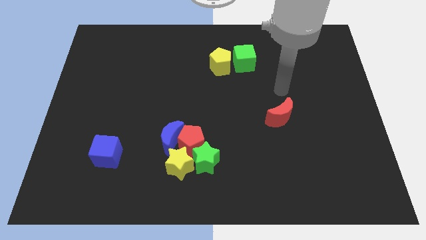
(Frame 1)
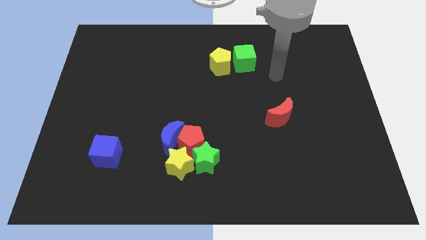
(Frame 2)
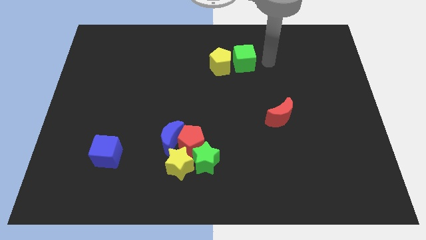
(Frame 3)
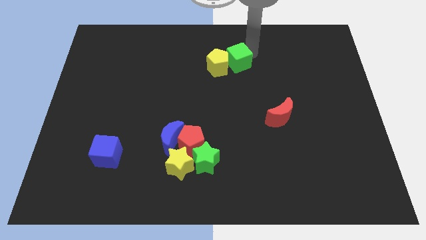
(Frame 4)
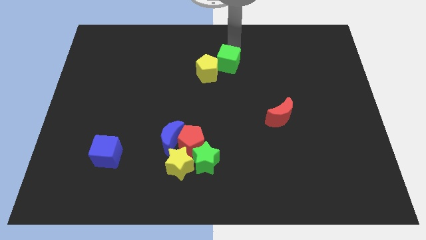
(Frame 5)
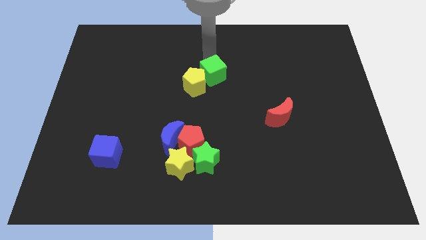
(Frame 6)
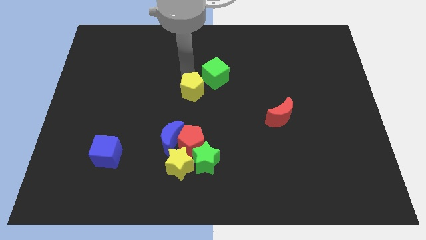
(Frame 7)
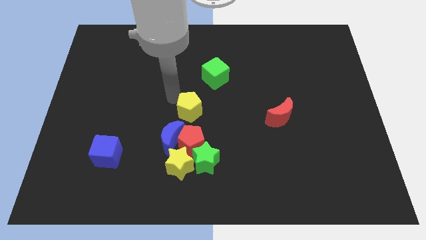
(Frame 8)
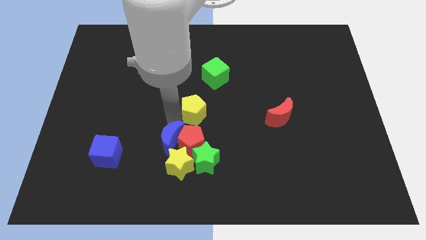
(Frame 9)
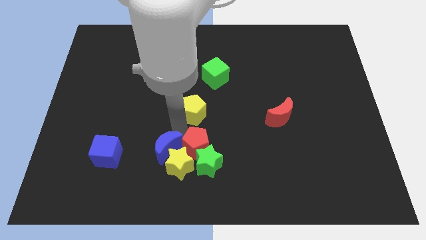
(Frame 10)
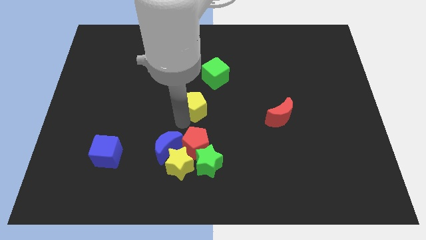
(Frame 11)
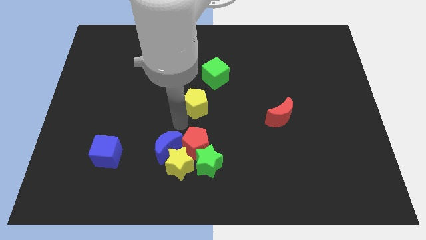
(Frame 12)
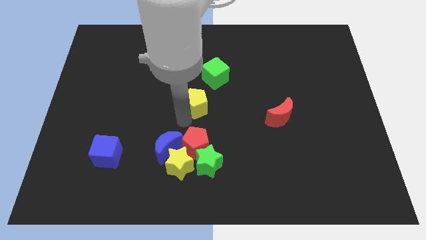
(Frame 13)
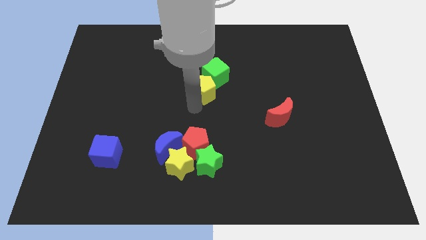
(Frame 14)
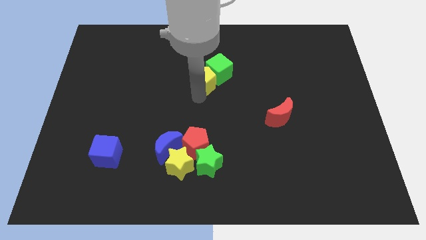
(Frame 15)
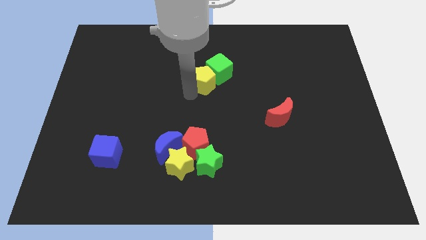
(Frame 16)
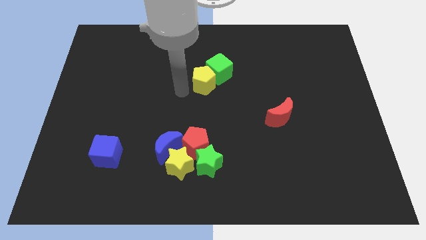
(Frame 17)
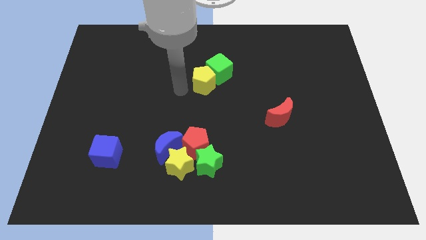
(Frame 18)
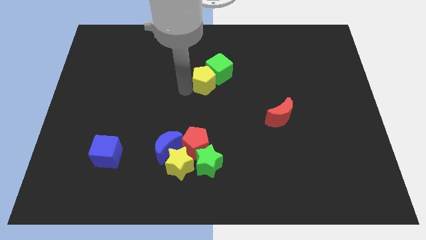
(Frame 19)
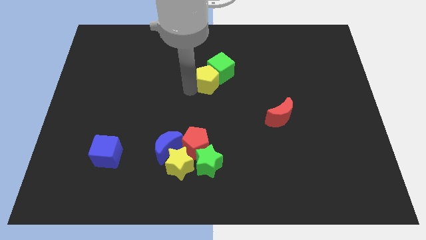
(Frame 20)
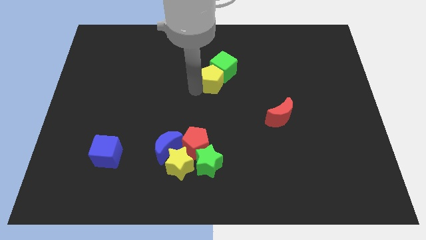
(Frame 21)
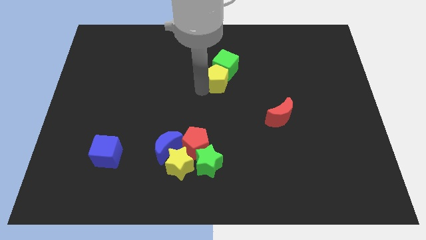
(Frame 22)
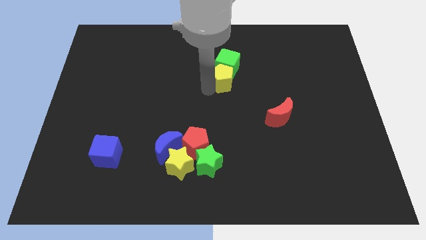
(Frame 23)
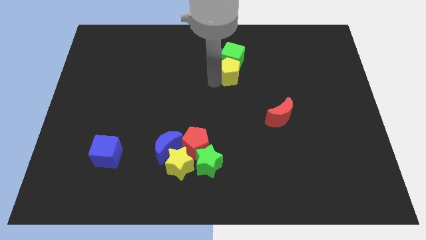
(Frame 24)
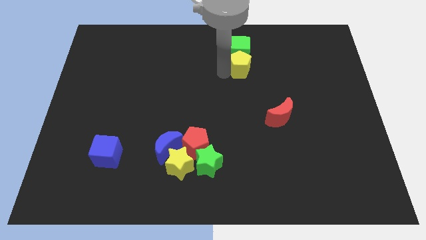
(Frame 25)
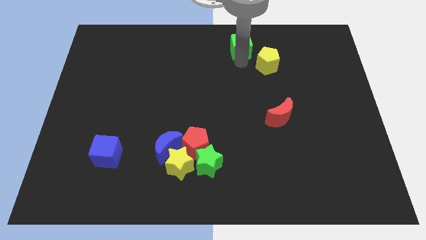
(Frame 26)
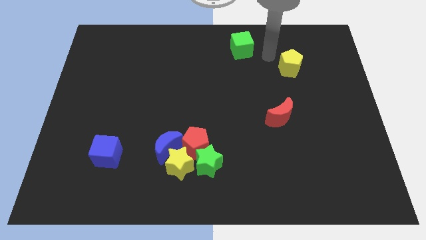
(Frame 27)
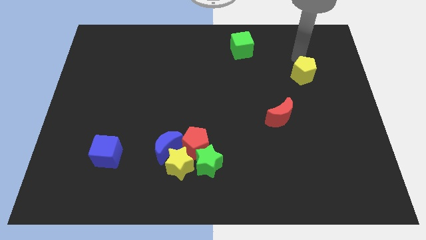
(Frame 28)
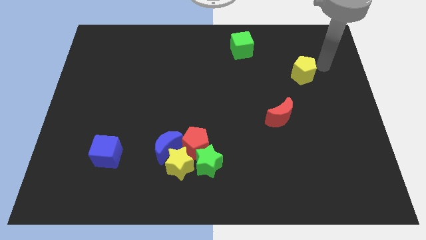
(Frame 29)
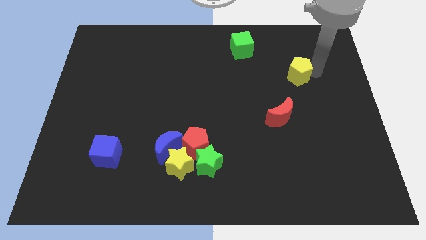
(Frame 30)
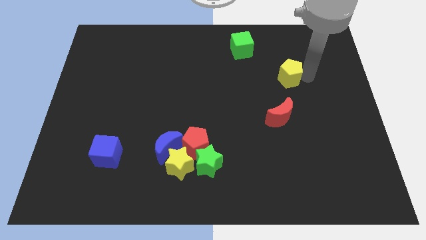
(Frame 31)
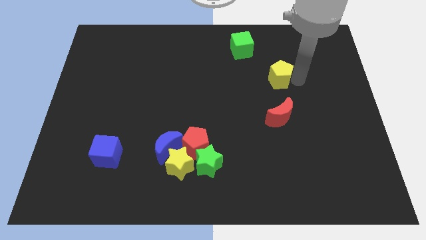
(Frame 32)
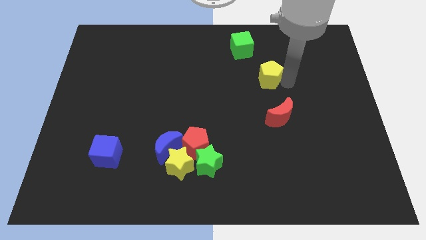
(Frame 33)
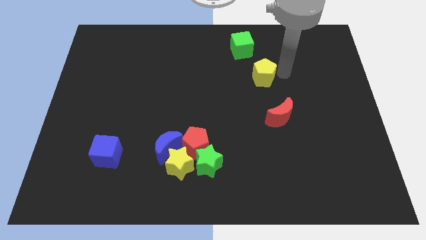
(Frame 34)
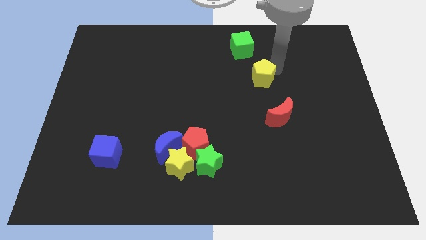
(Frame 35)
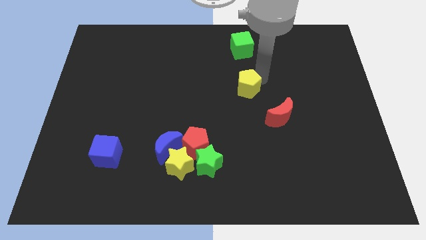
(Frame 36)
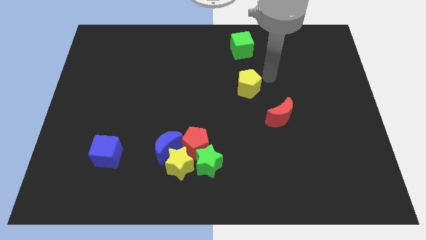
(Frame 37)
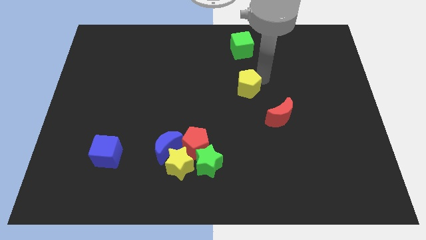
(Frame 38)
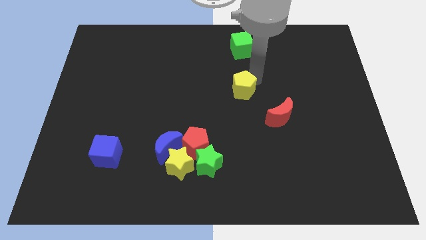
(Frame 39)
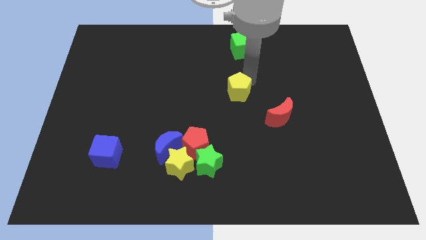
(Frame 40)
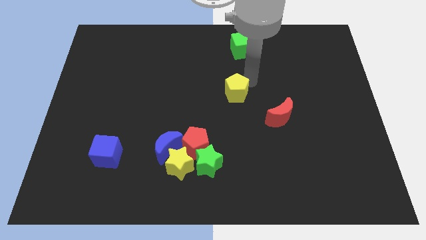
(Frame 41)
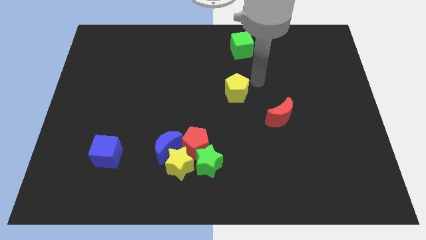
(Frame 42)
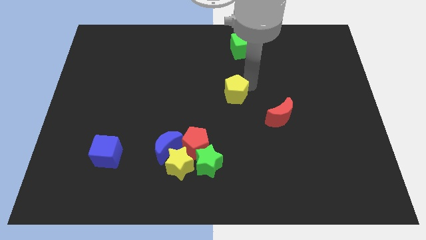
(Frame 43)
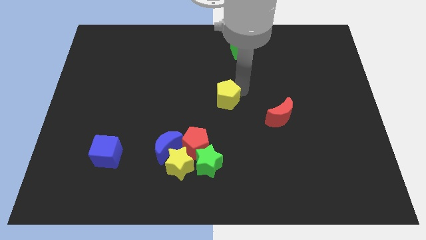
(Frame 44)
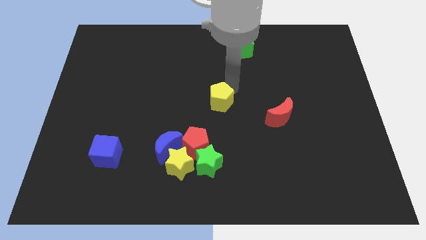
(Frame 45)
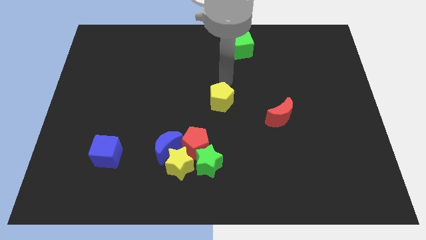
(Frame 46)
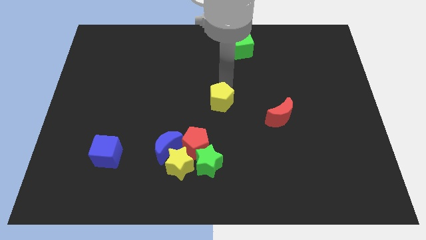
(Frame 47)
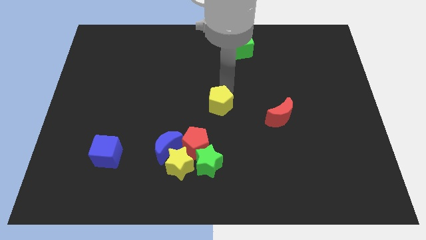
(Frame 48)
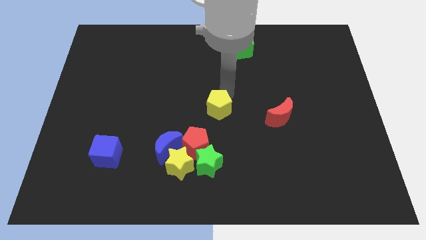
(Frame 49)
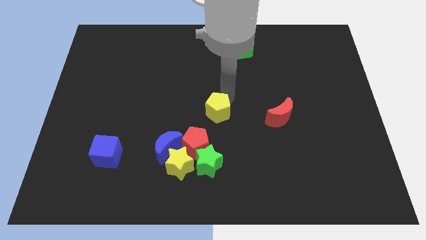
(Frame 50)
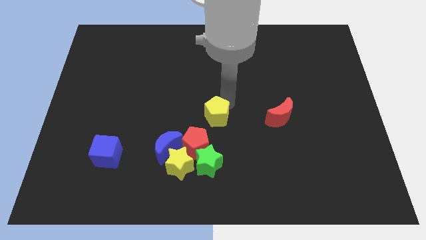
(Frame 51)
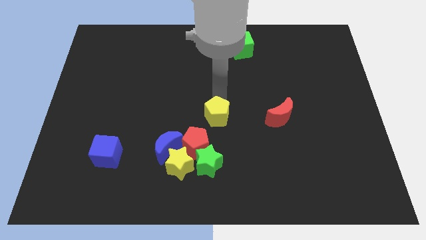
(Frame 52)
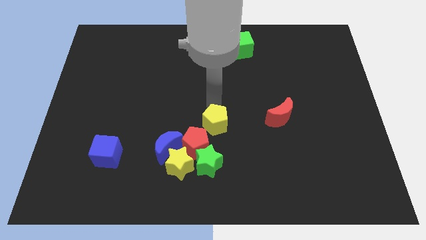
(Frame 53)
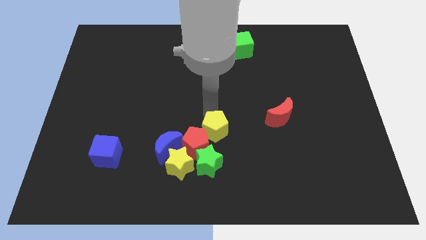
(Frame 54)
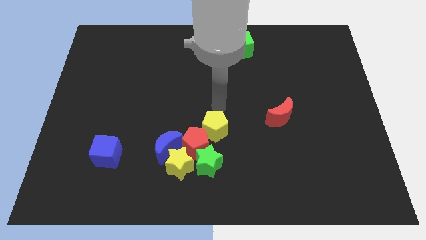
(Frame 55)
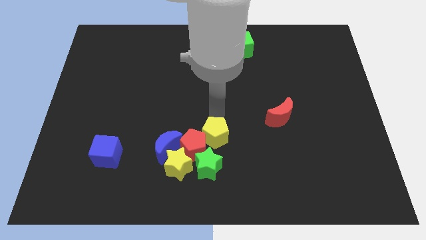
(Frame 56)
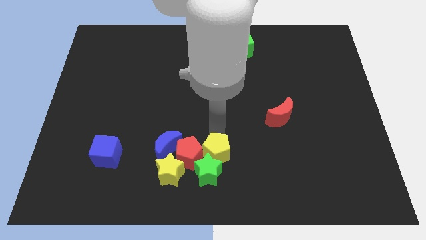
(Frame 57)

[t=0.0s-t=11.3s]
push the yellow pentagon close to the green star

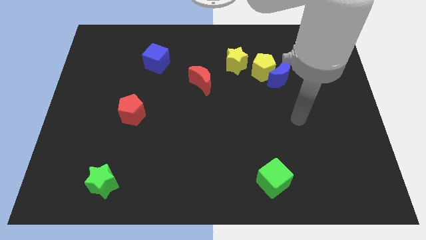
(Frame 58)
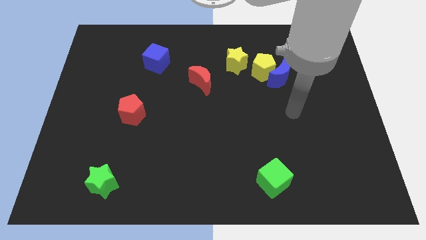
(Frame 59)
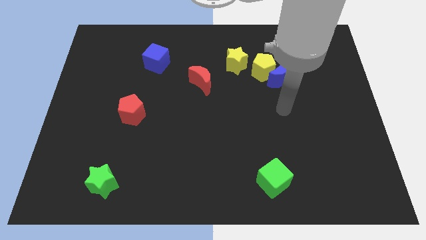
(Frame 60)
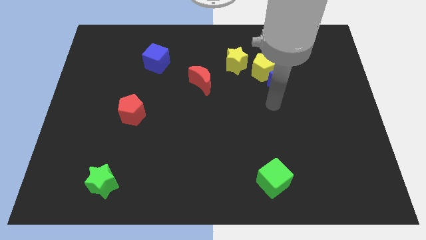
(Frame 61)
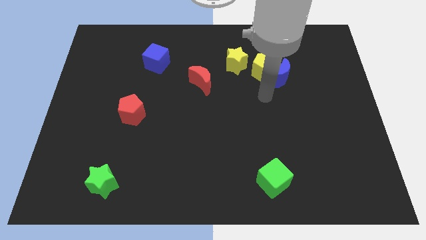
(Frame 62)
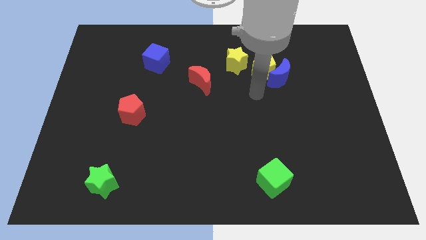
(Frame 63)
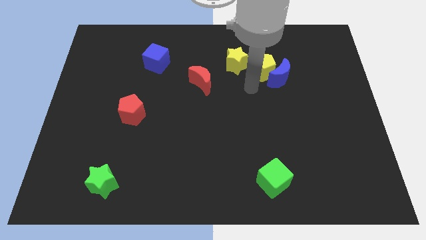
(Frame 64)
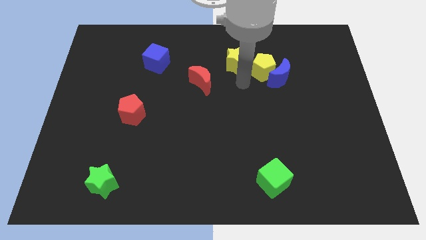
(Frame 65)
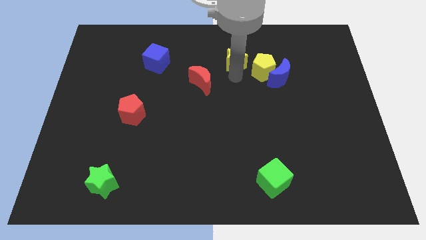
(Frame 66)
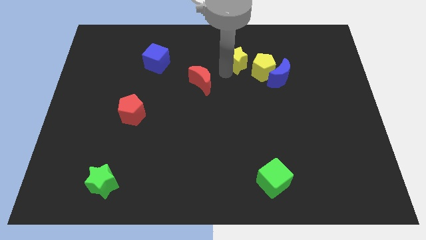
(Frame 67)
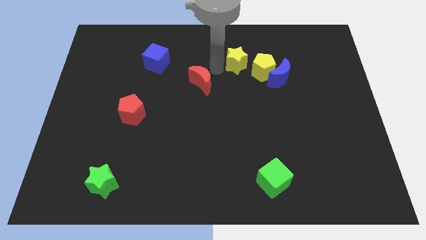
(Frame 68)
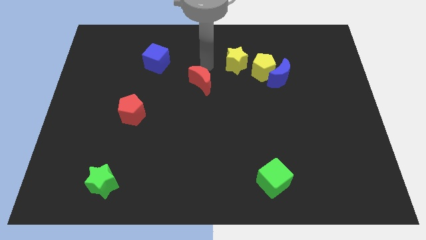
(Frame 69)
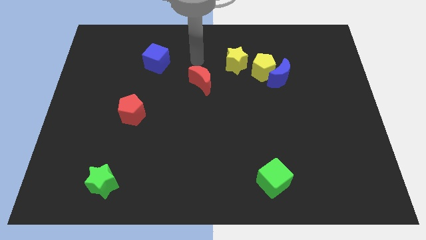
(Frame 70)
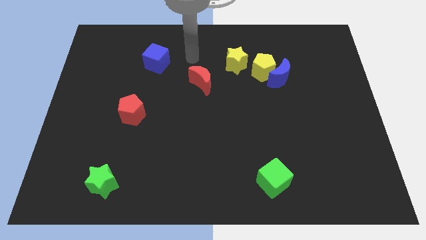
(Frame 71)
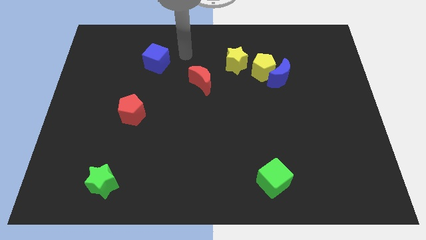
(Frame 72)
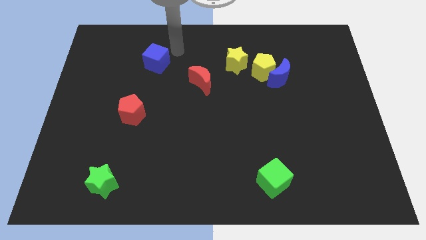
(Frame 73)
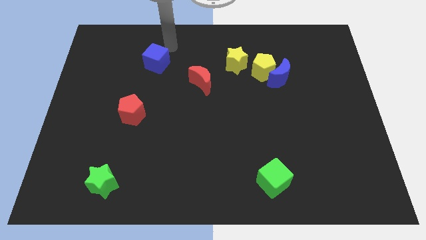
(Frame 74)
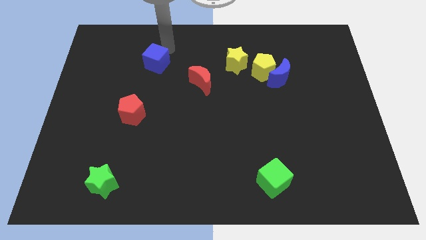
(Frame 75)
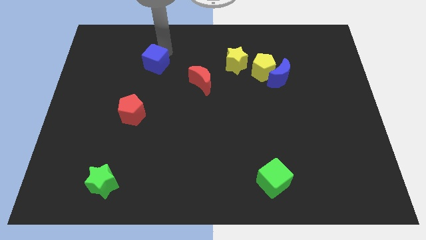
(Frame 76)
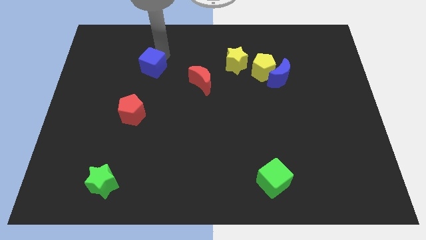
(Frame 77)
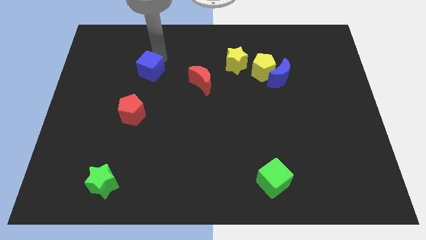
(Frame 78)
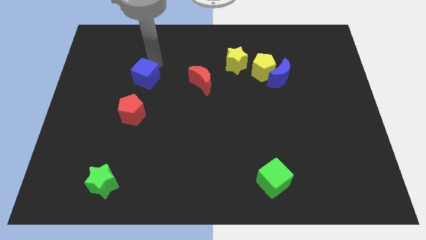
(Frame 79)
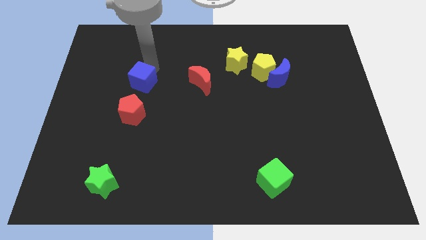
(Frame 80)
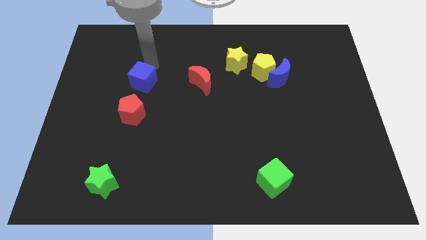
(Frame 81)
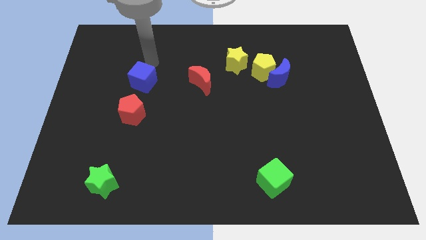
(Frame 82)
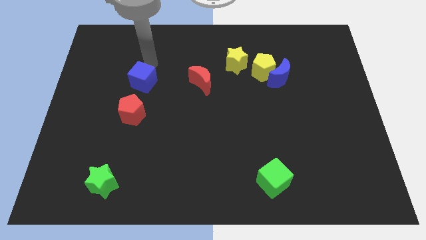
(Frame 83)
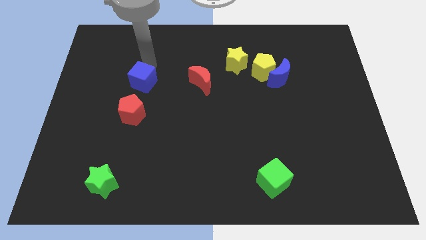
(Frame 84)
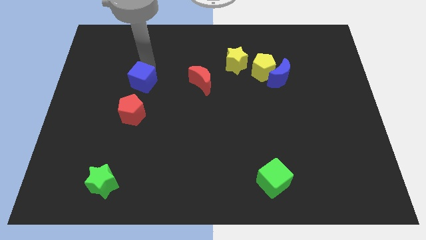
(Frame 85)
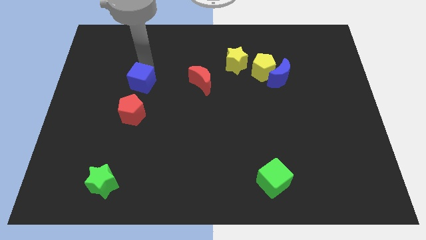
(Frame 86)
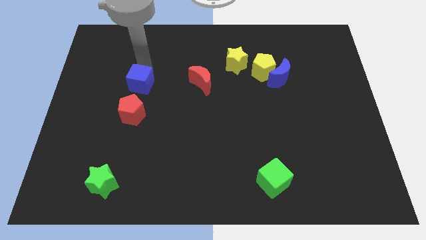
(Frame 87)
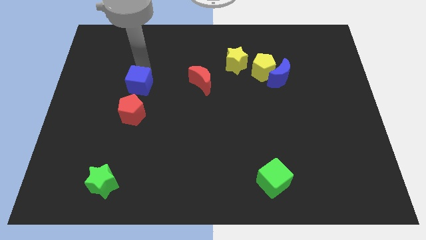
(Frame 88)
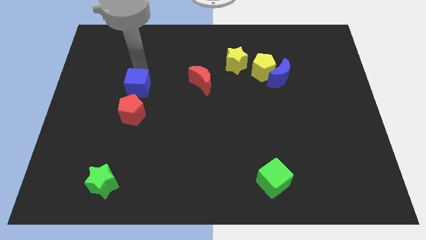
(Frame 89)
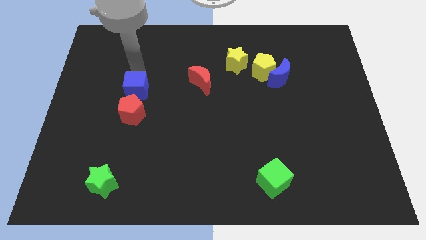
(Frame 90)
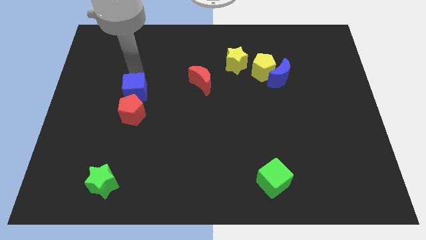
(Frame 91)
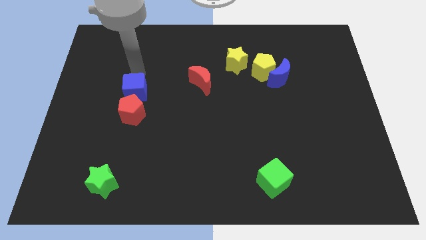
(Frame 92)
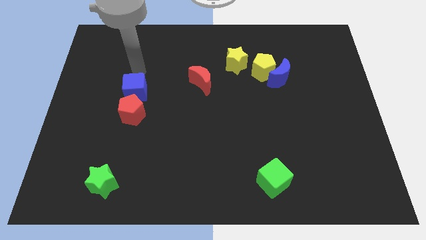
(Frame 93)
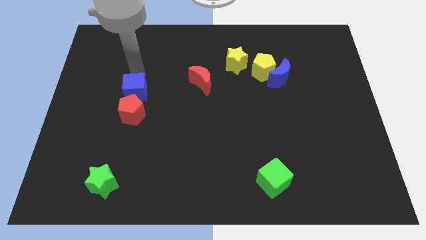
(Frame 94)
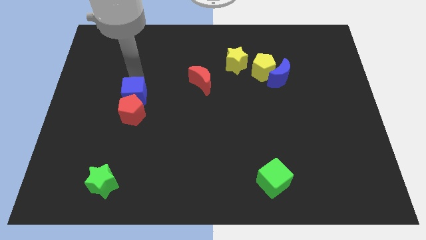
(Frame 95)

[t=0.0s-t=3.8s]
move the blue cube next to the red pentagon
